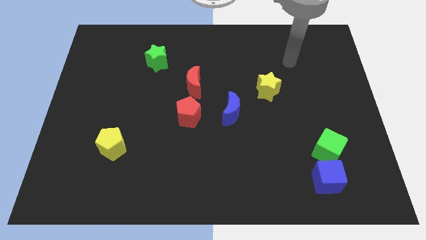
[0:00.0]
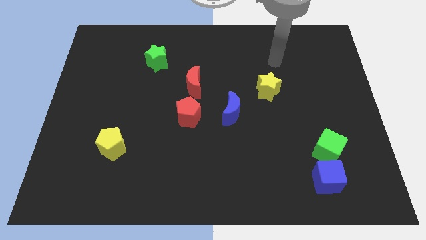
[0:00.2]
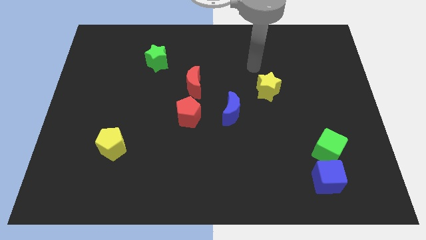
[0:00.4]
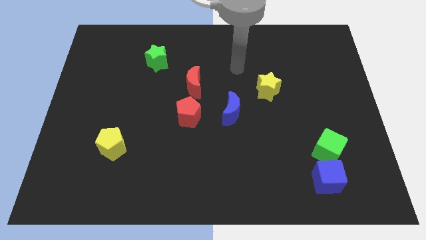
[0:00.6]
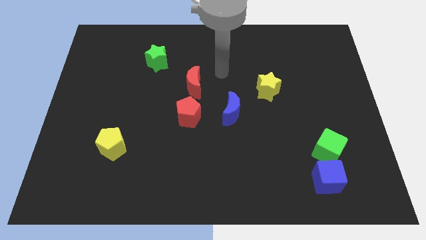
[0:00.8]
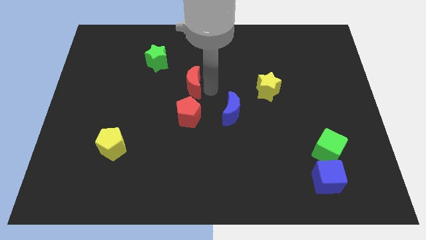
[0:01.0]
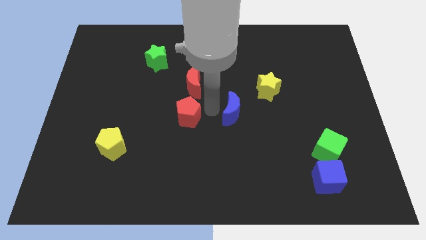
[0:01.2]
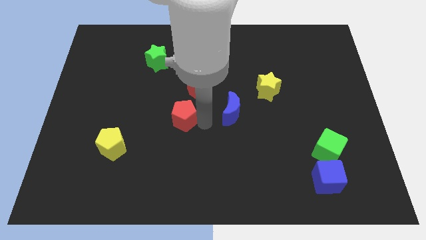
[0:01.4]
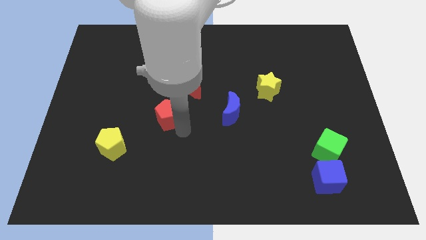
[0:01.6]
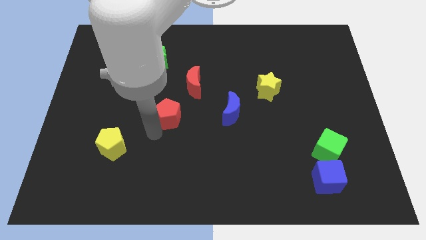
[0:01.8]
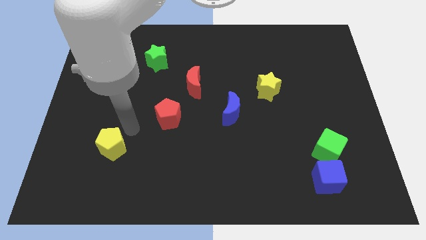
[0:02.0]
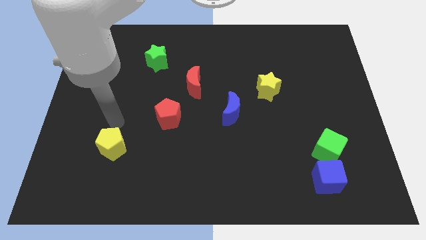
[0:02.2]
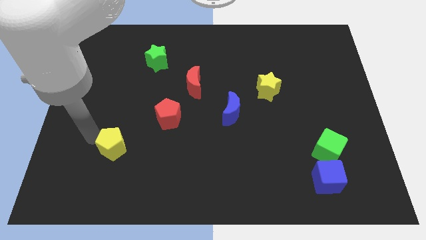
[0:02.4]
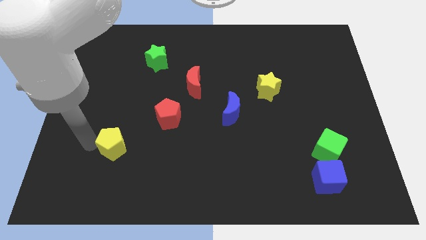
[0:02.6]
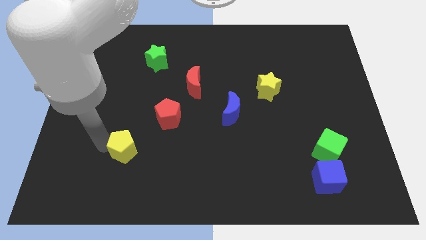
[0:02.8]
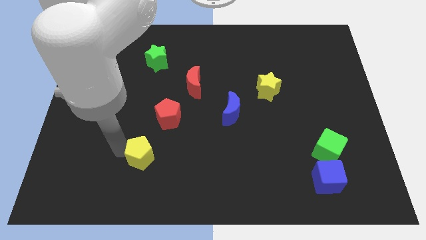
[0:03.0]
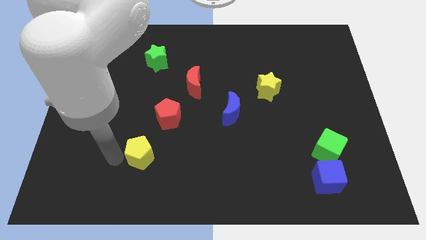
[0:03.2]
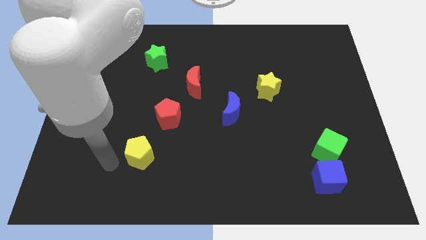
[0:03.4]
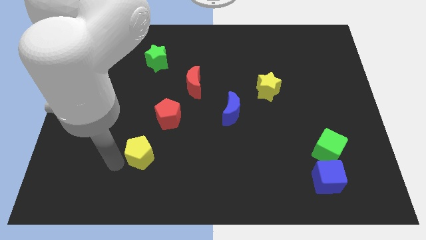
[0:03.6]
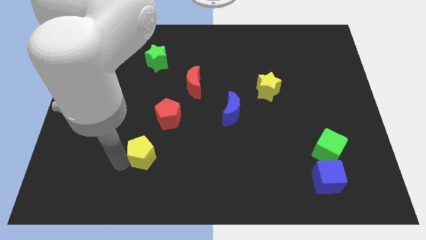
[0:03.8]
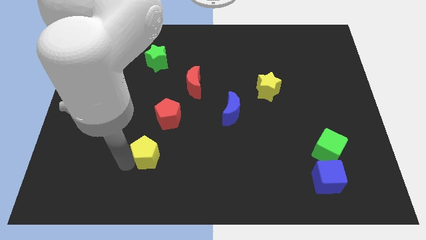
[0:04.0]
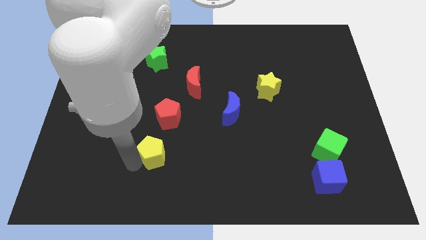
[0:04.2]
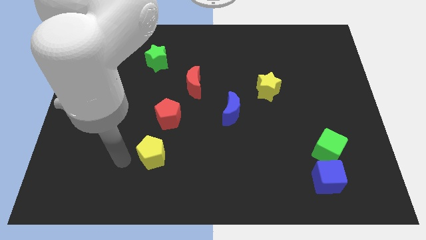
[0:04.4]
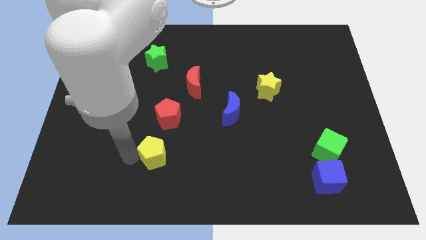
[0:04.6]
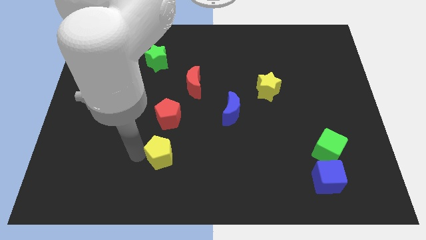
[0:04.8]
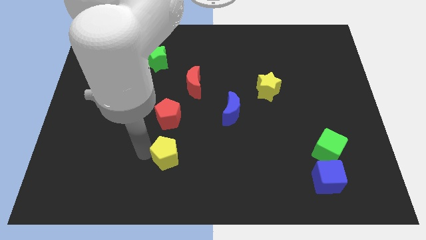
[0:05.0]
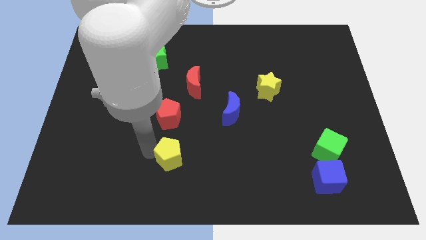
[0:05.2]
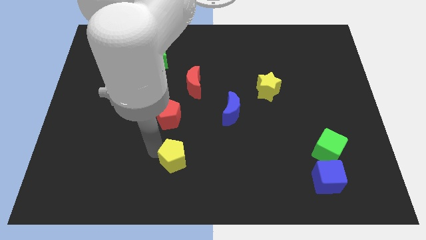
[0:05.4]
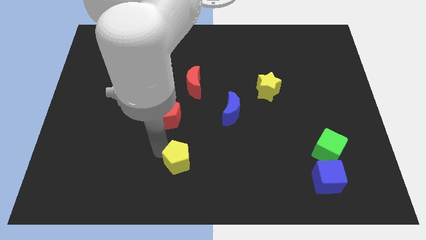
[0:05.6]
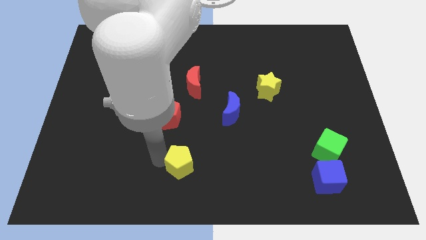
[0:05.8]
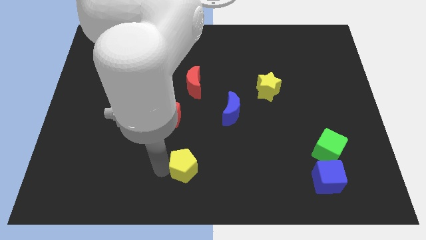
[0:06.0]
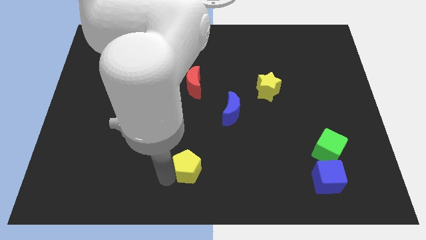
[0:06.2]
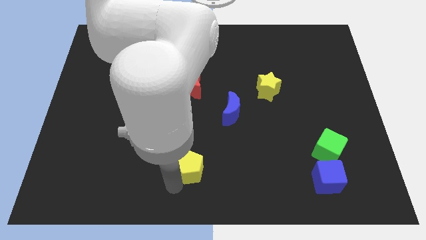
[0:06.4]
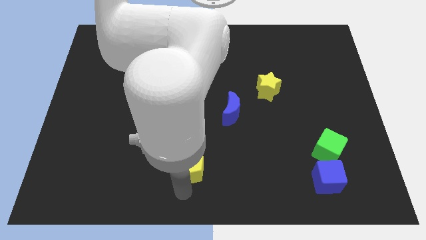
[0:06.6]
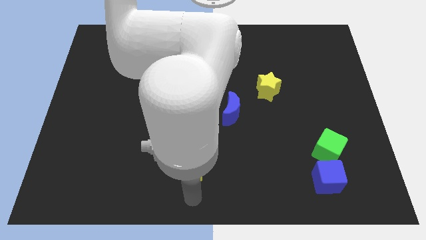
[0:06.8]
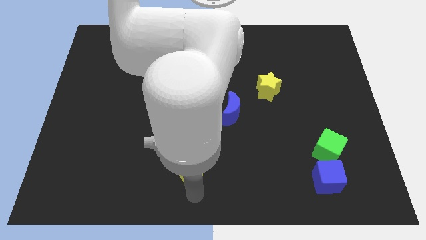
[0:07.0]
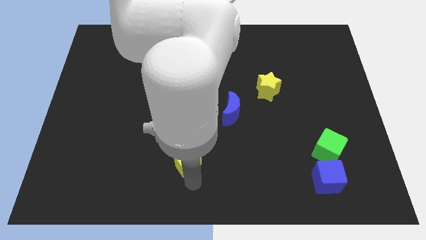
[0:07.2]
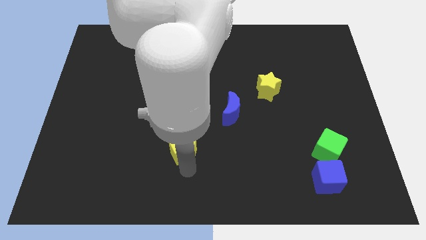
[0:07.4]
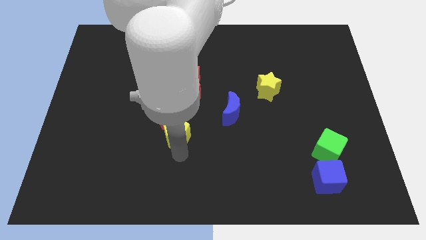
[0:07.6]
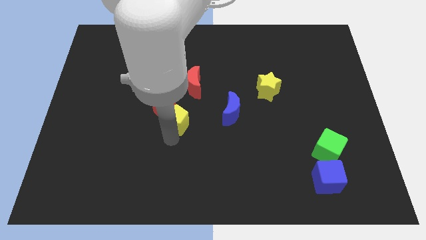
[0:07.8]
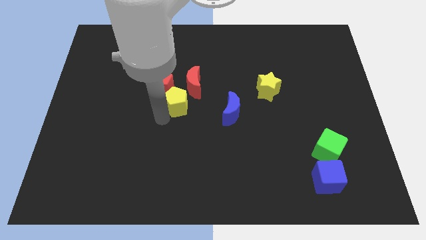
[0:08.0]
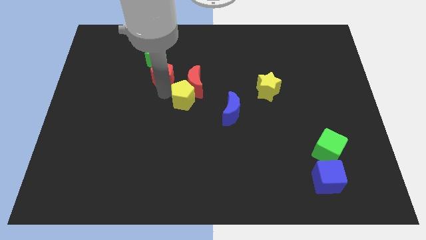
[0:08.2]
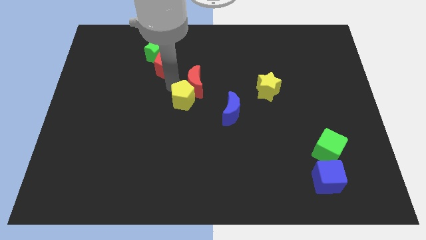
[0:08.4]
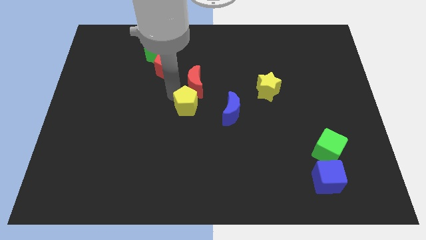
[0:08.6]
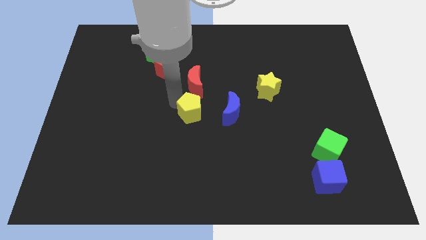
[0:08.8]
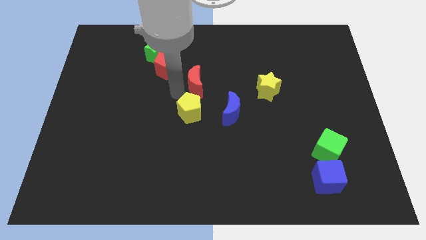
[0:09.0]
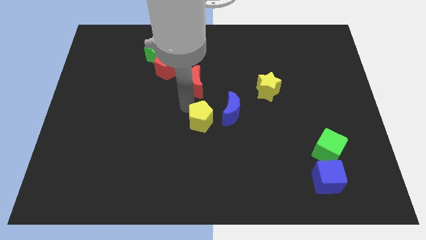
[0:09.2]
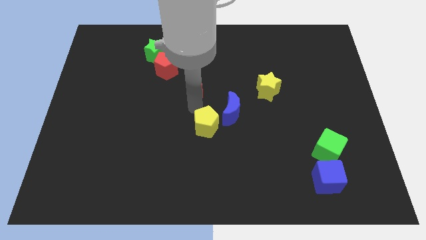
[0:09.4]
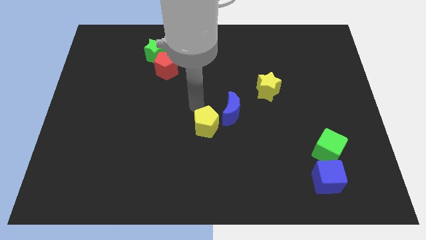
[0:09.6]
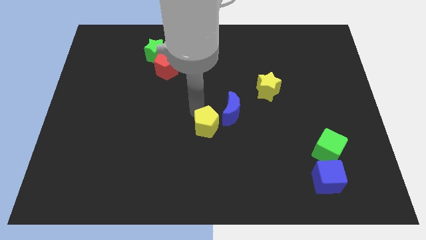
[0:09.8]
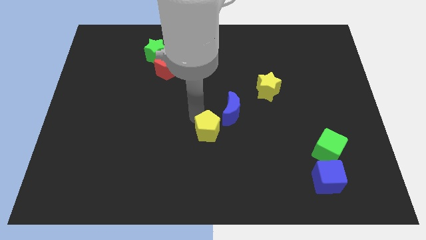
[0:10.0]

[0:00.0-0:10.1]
move the yellow pentagon to the right

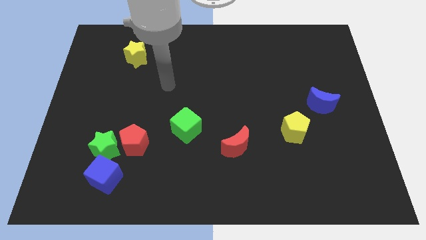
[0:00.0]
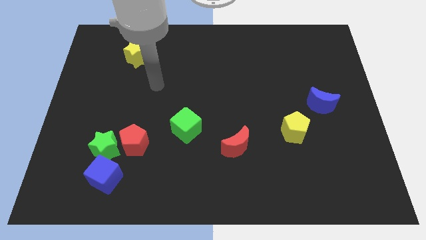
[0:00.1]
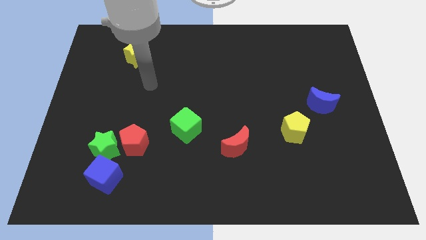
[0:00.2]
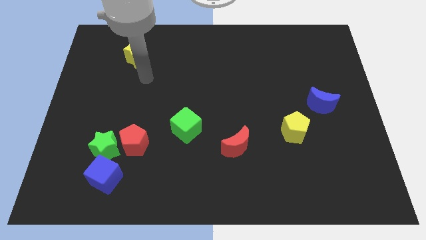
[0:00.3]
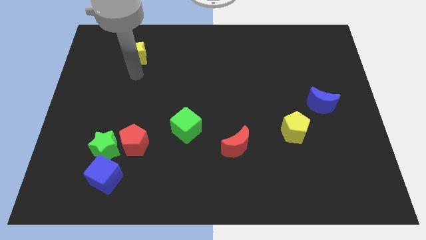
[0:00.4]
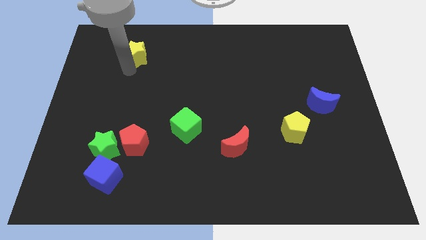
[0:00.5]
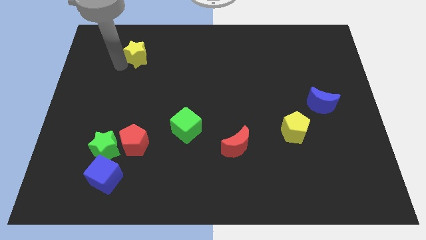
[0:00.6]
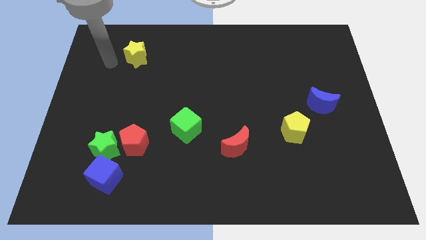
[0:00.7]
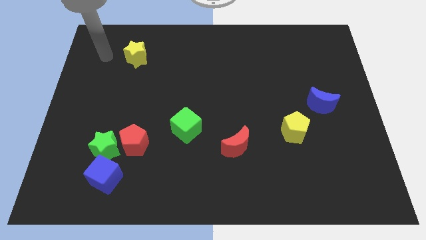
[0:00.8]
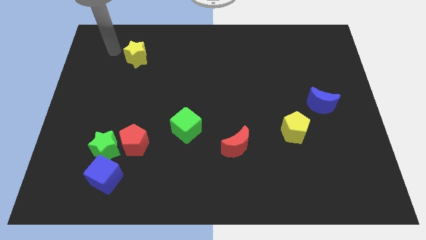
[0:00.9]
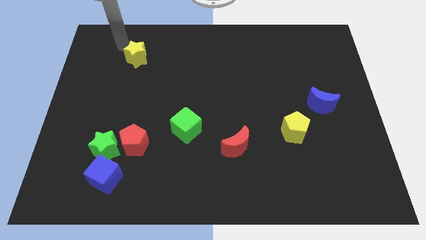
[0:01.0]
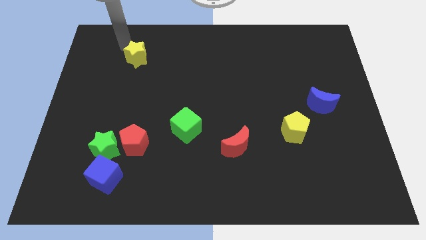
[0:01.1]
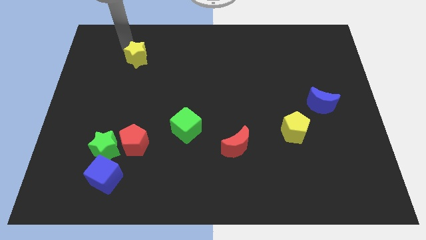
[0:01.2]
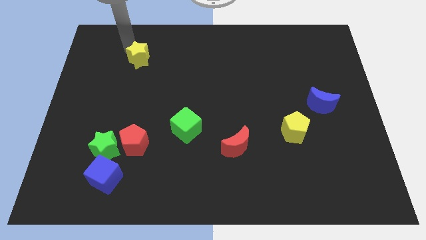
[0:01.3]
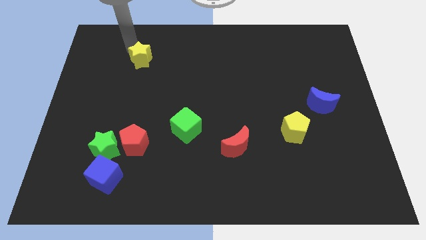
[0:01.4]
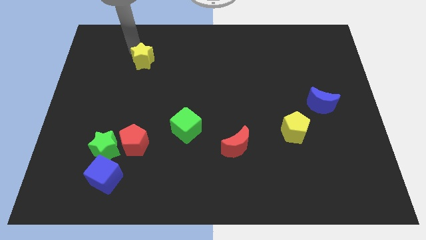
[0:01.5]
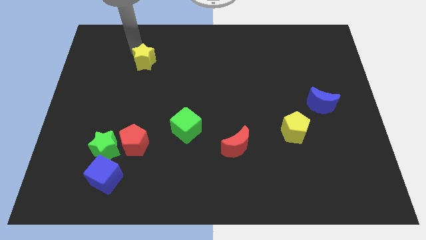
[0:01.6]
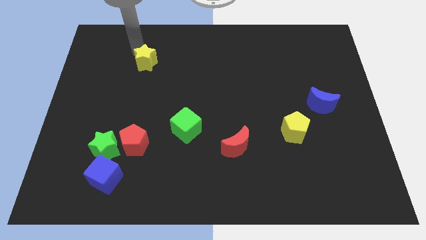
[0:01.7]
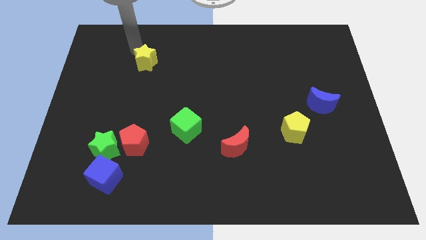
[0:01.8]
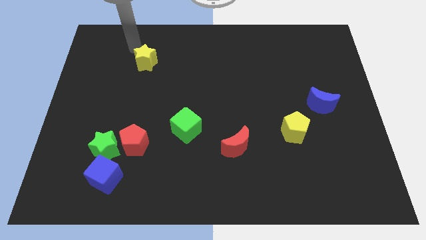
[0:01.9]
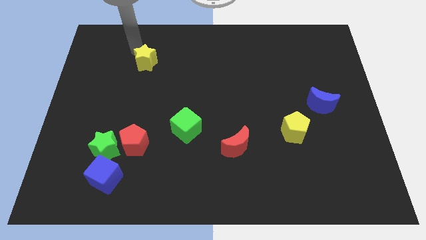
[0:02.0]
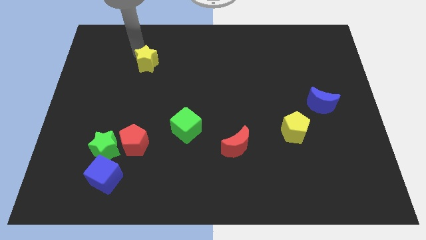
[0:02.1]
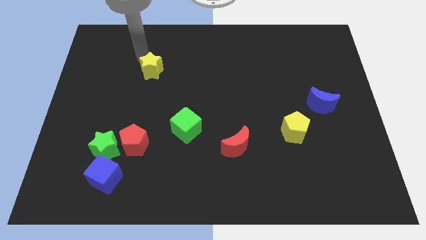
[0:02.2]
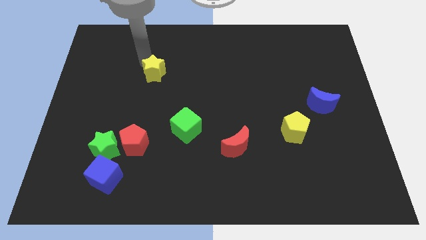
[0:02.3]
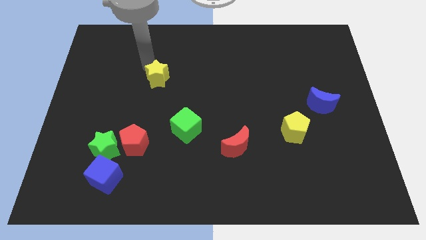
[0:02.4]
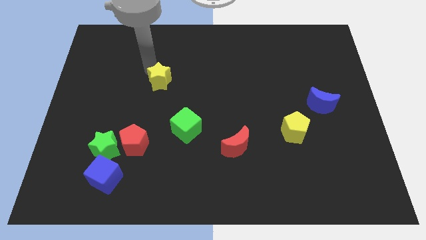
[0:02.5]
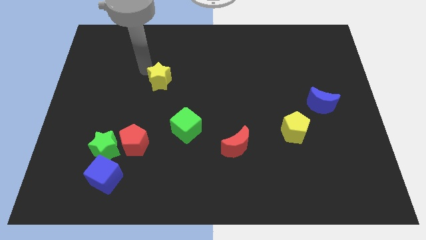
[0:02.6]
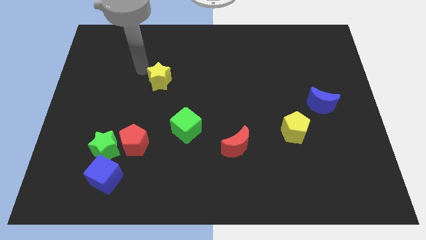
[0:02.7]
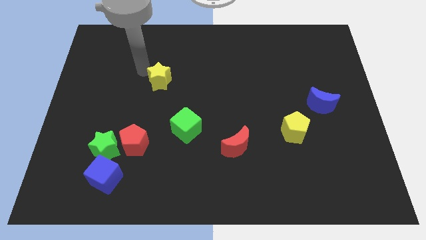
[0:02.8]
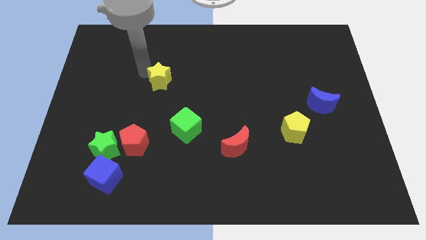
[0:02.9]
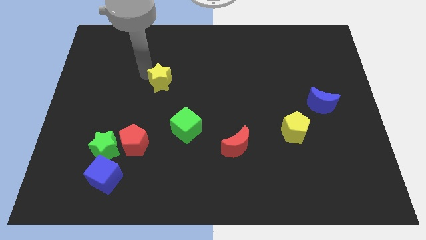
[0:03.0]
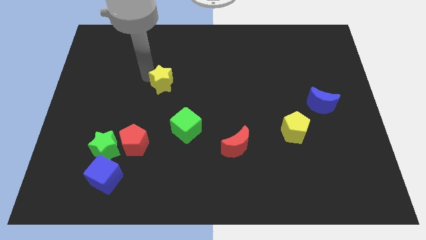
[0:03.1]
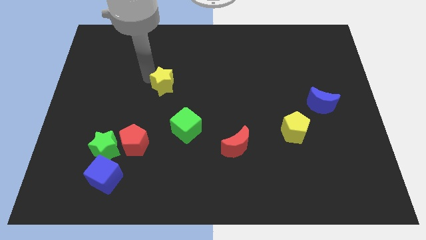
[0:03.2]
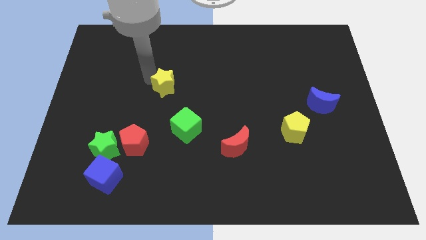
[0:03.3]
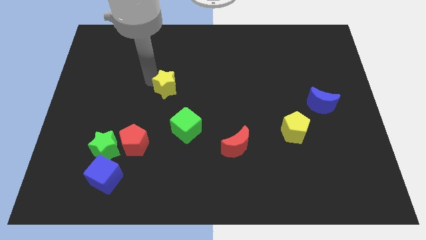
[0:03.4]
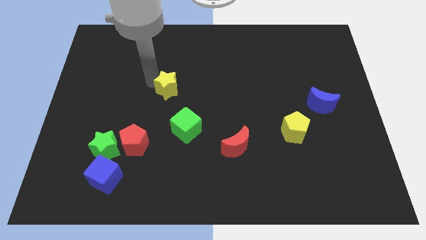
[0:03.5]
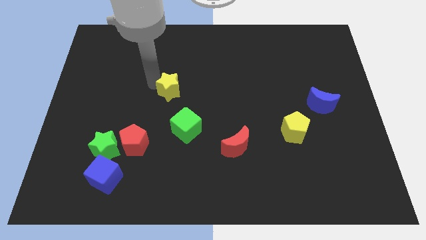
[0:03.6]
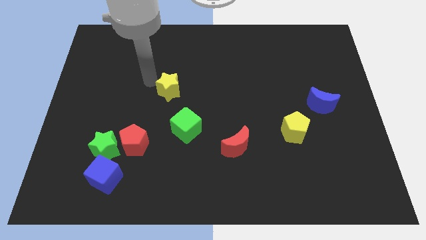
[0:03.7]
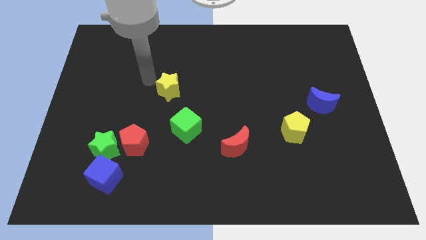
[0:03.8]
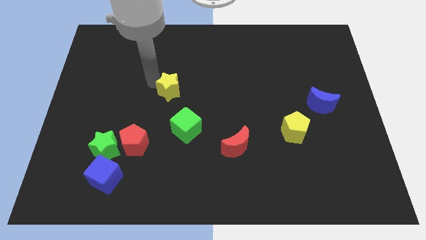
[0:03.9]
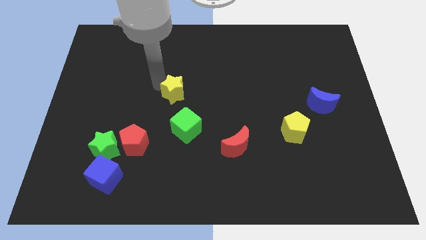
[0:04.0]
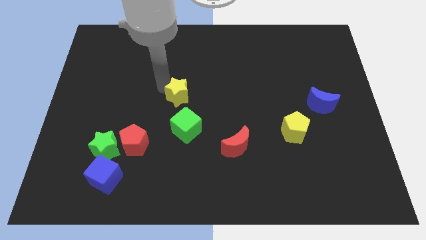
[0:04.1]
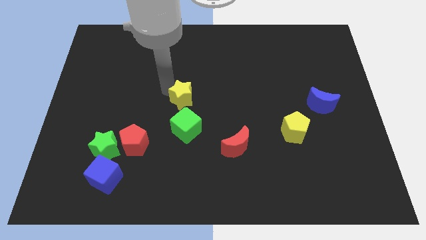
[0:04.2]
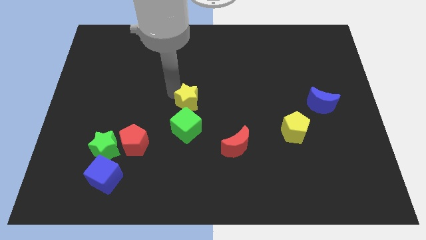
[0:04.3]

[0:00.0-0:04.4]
push the yellow star diagonally down and right
